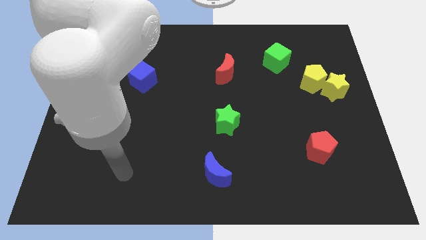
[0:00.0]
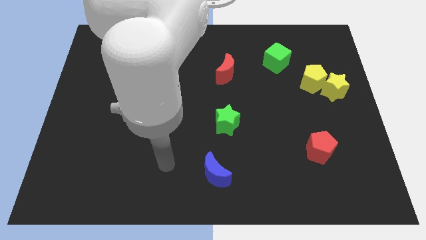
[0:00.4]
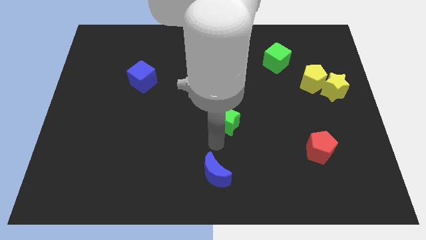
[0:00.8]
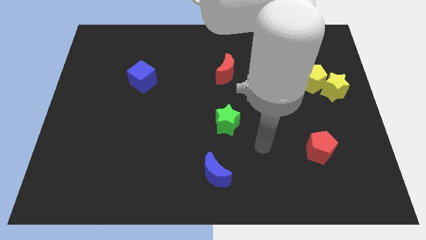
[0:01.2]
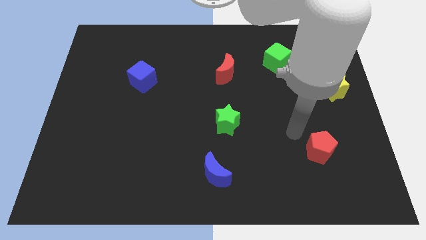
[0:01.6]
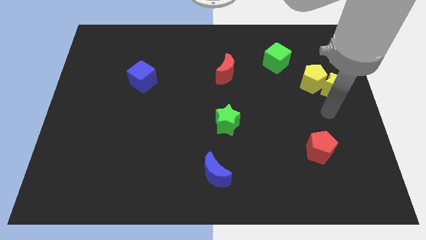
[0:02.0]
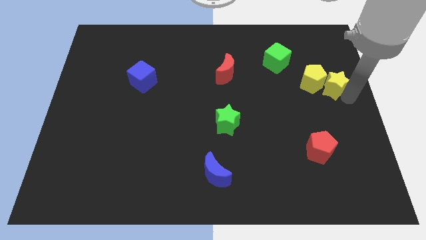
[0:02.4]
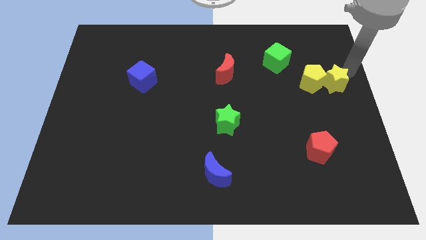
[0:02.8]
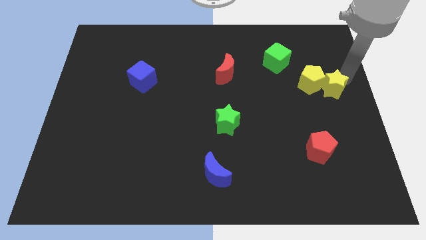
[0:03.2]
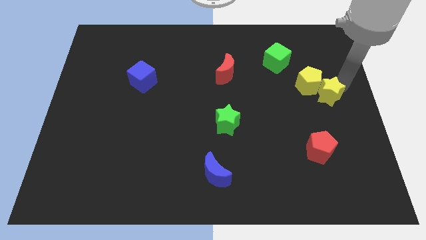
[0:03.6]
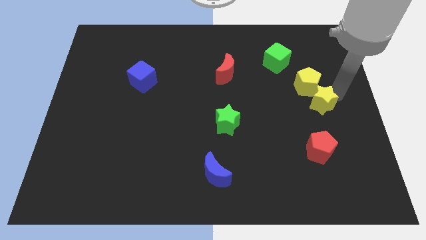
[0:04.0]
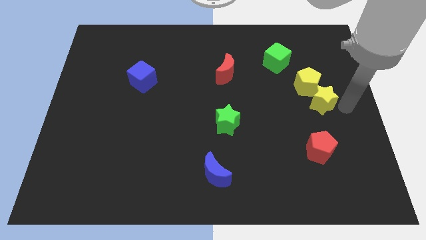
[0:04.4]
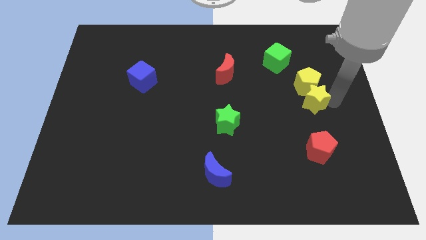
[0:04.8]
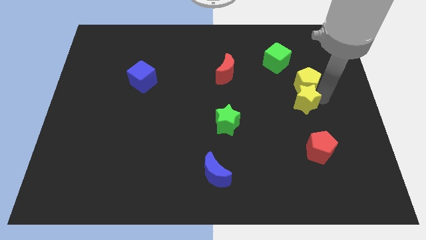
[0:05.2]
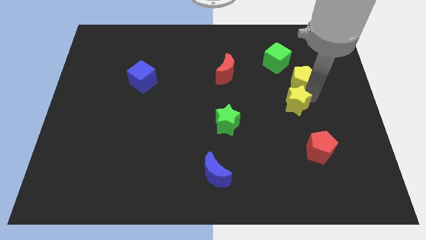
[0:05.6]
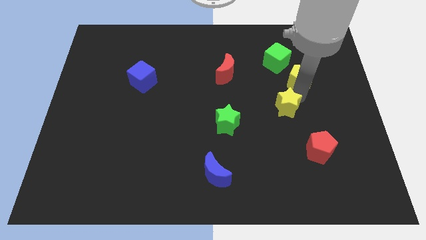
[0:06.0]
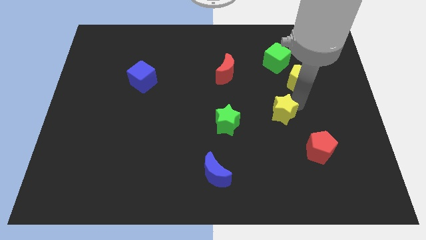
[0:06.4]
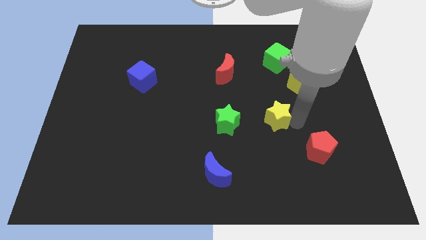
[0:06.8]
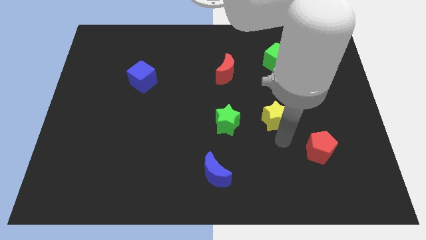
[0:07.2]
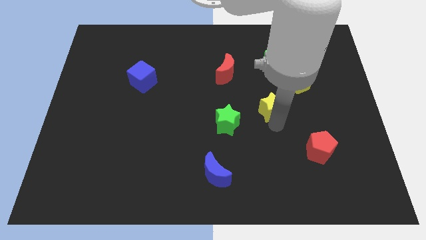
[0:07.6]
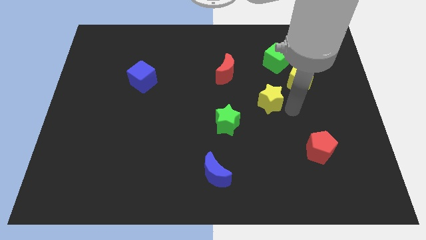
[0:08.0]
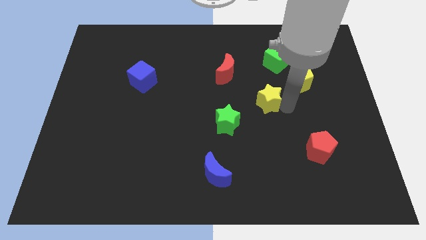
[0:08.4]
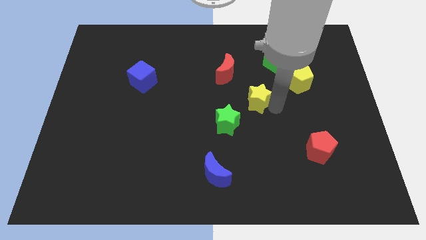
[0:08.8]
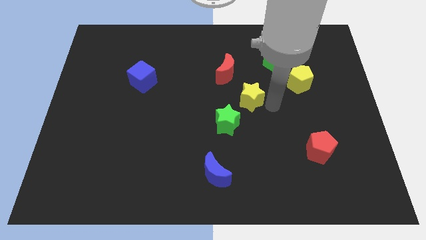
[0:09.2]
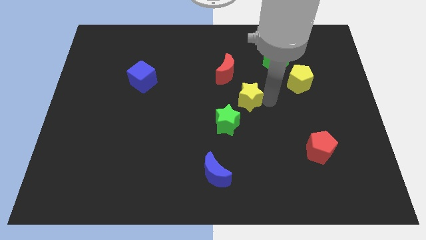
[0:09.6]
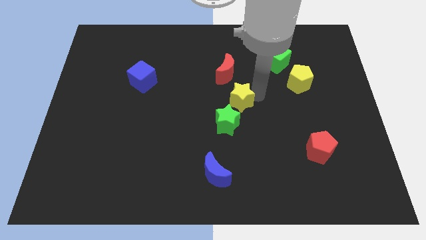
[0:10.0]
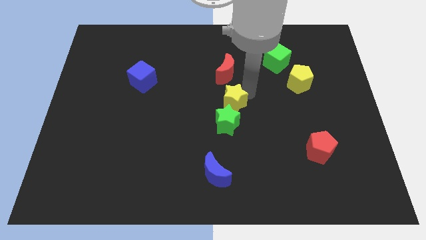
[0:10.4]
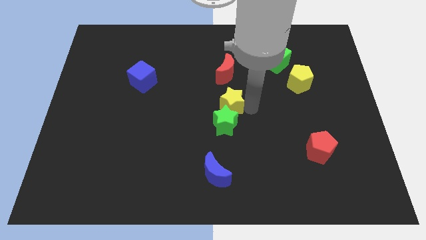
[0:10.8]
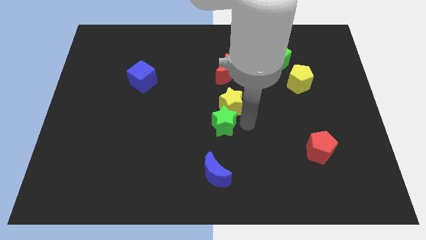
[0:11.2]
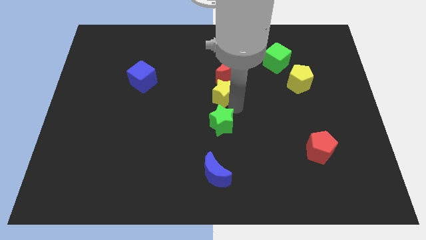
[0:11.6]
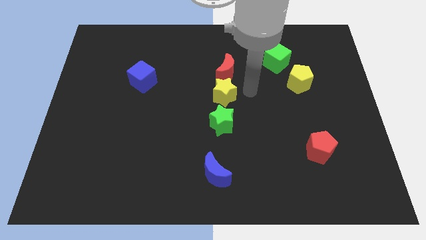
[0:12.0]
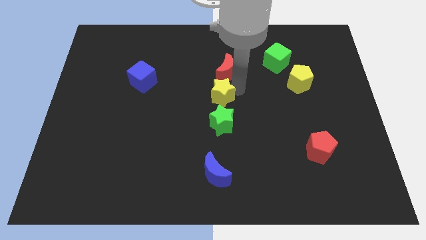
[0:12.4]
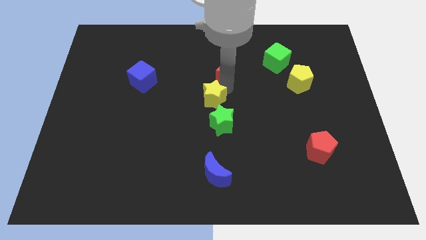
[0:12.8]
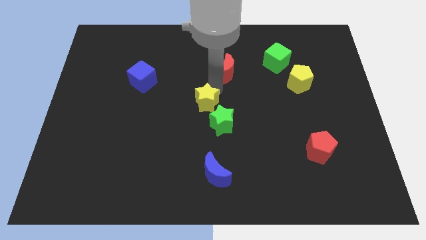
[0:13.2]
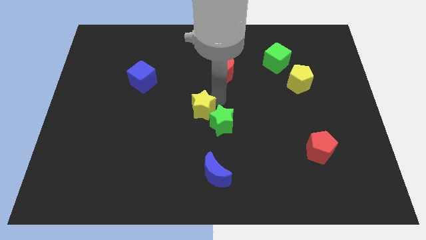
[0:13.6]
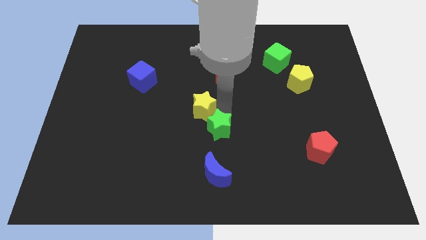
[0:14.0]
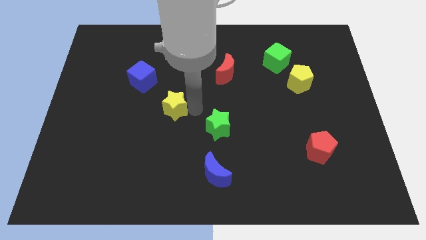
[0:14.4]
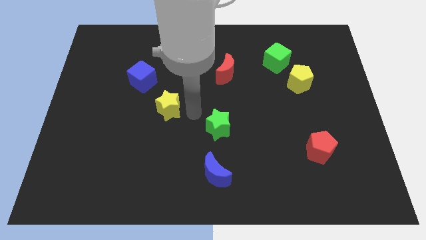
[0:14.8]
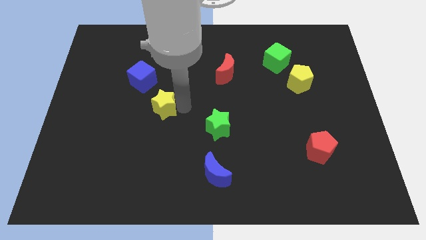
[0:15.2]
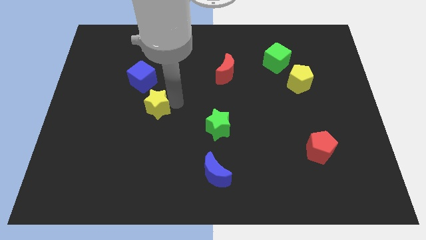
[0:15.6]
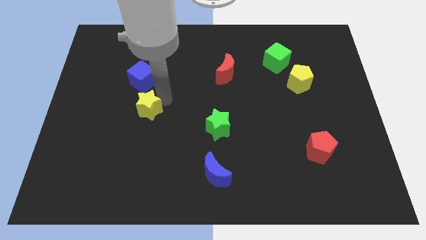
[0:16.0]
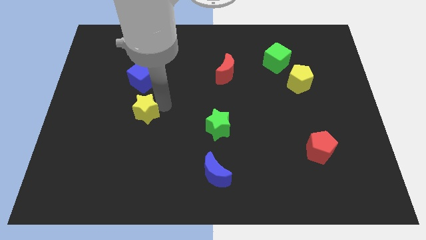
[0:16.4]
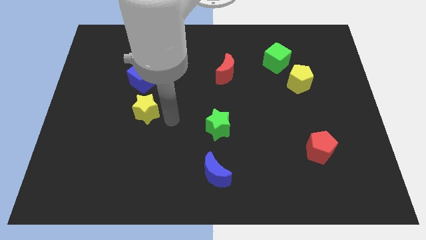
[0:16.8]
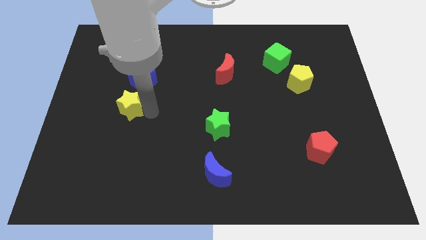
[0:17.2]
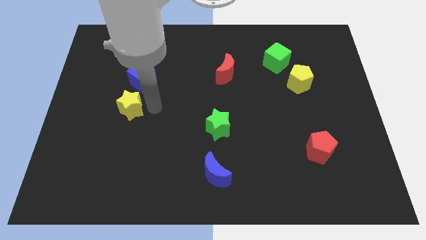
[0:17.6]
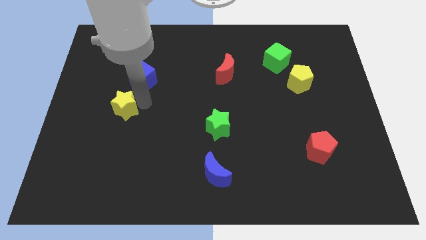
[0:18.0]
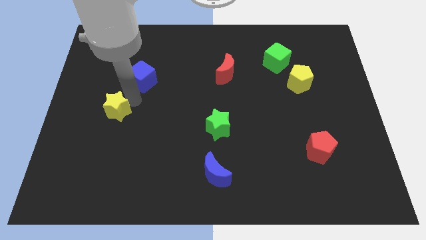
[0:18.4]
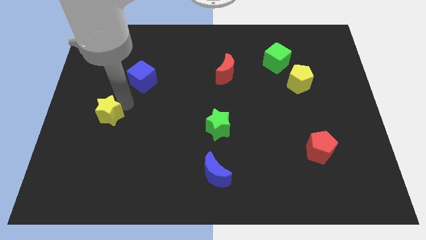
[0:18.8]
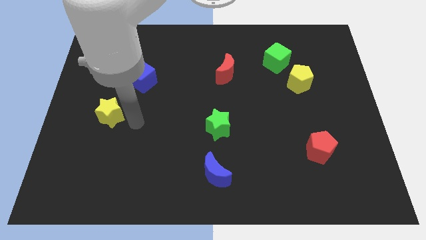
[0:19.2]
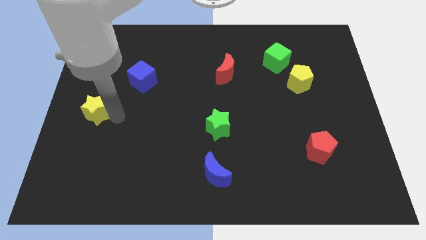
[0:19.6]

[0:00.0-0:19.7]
put the yellow star to the left side

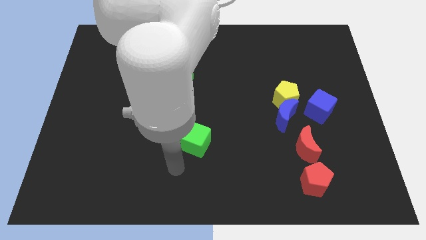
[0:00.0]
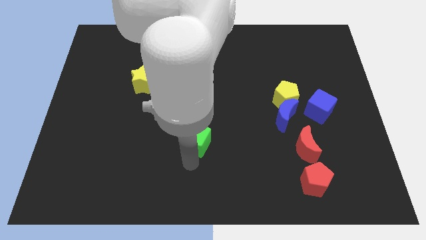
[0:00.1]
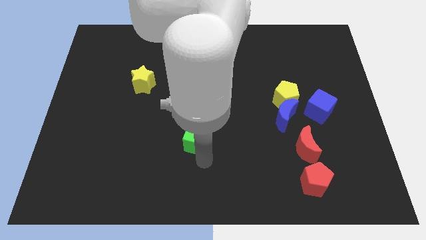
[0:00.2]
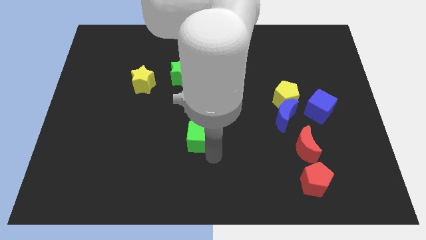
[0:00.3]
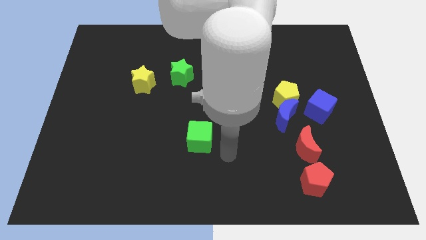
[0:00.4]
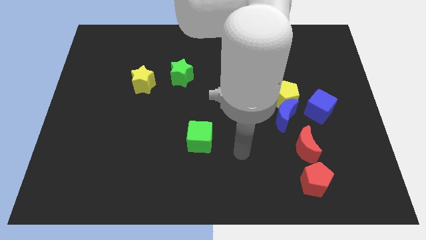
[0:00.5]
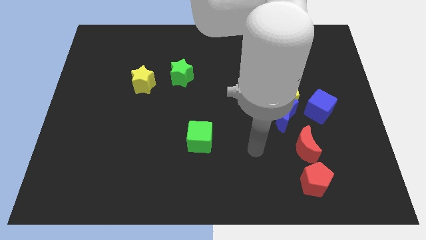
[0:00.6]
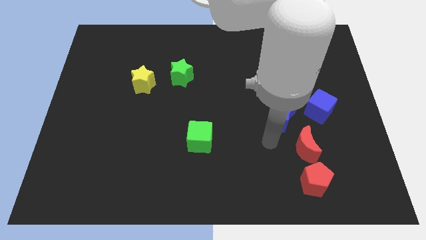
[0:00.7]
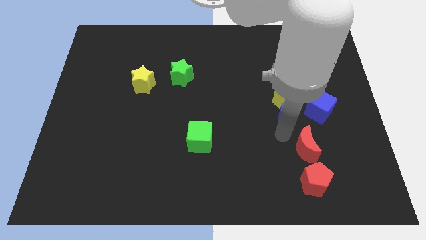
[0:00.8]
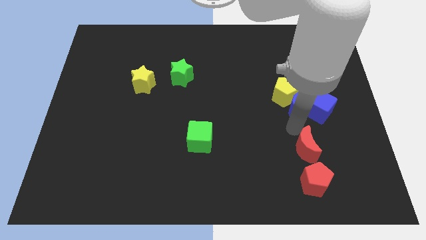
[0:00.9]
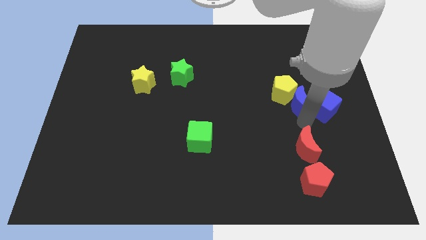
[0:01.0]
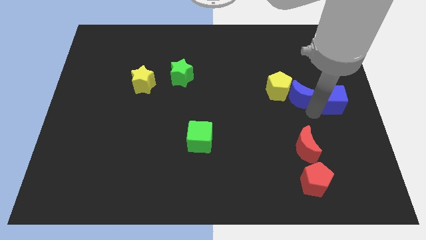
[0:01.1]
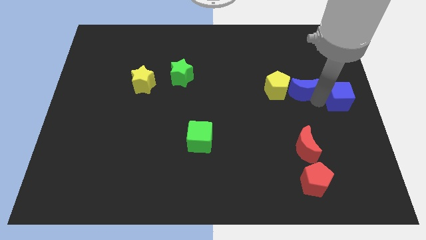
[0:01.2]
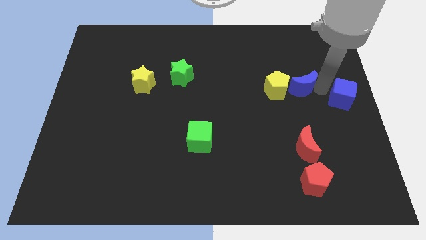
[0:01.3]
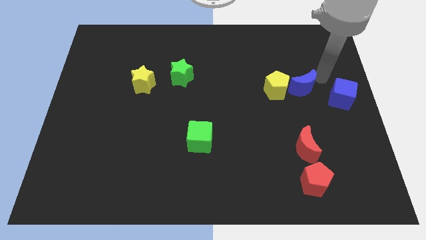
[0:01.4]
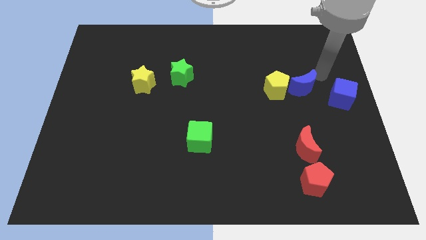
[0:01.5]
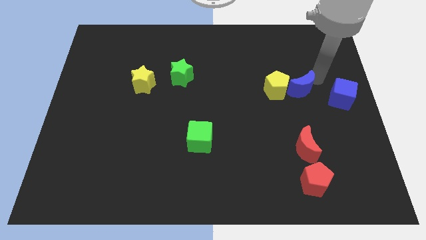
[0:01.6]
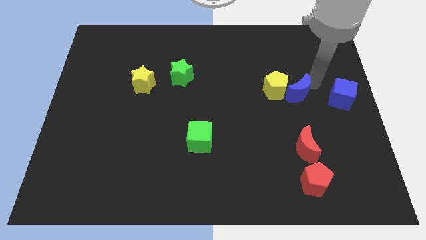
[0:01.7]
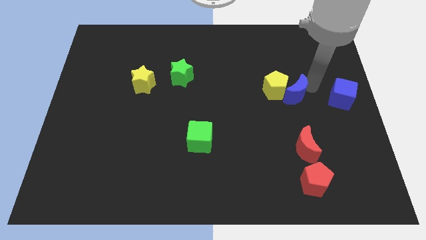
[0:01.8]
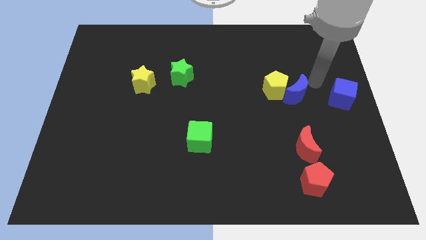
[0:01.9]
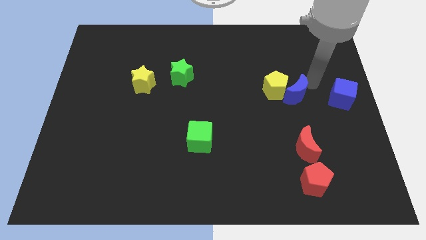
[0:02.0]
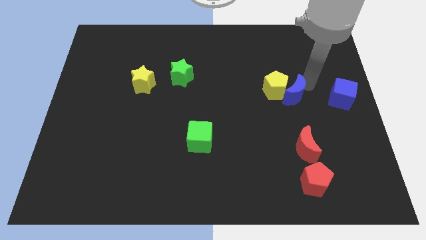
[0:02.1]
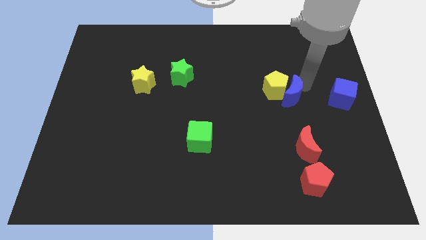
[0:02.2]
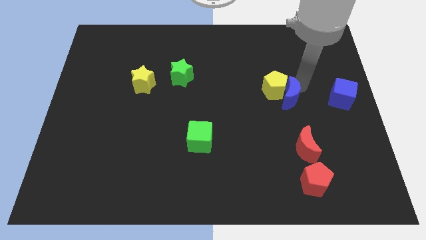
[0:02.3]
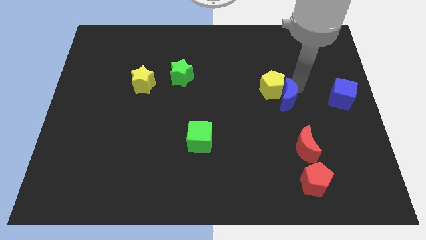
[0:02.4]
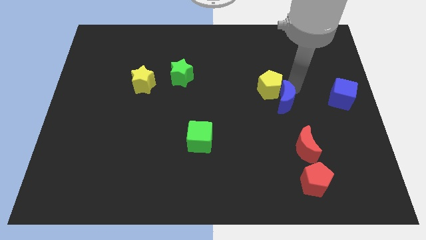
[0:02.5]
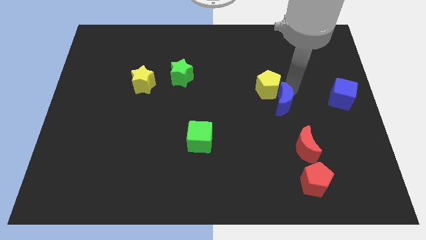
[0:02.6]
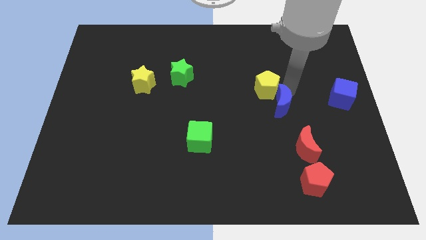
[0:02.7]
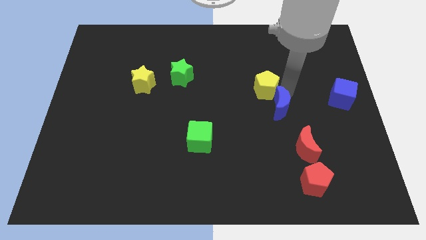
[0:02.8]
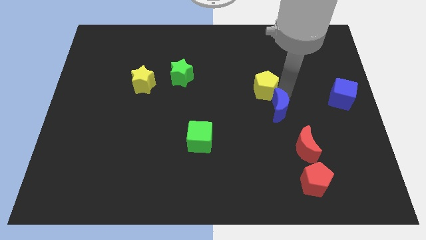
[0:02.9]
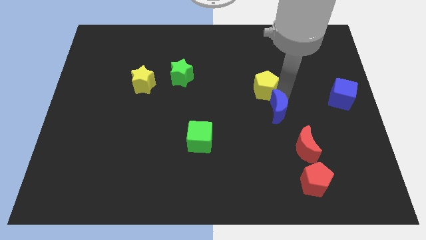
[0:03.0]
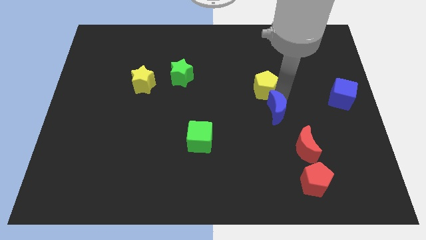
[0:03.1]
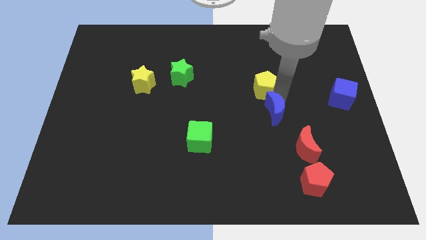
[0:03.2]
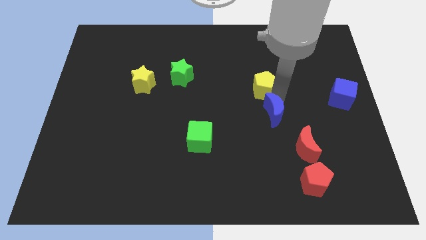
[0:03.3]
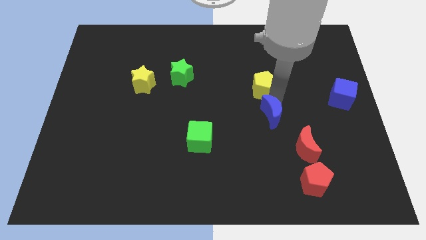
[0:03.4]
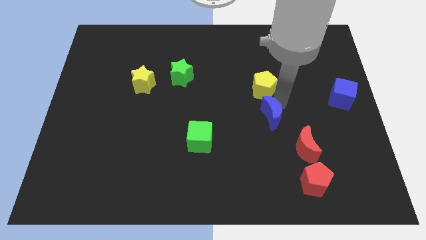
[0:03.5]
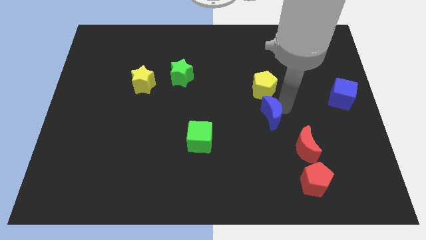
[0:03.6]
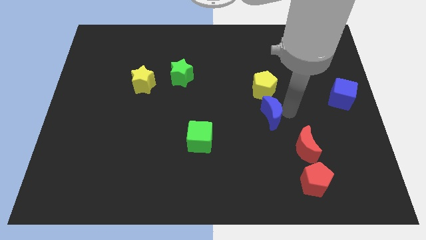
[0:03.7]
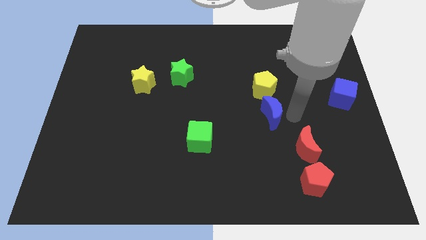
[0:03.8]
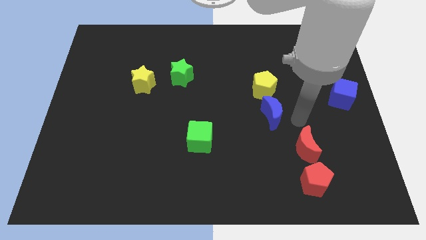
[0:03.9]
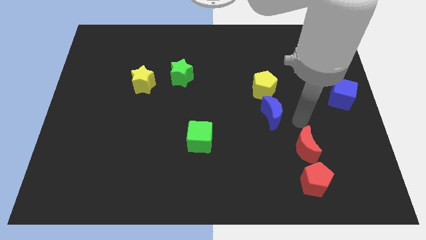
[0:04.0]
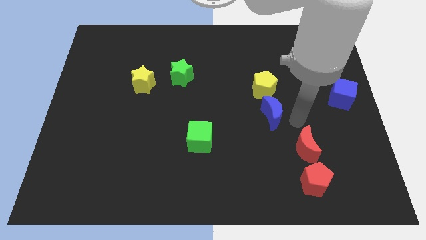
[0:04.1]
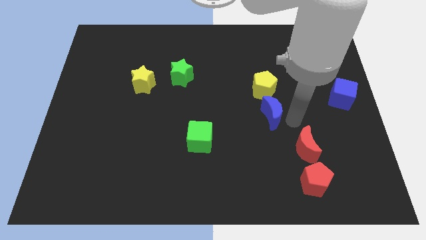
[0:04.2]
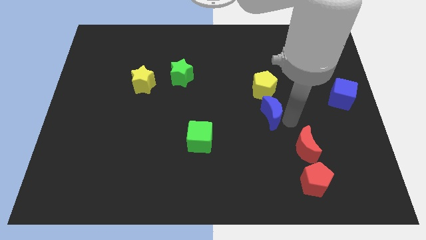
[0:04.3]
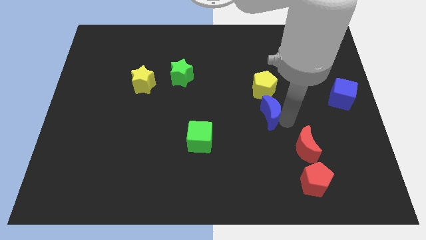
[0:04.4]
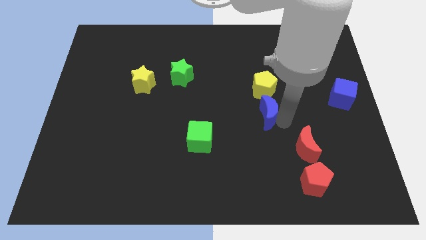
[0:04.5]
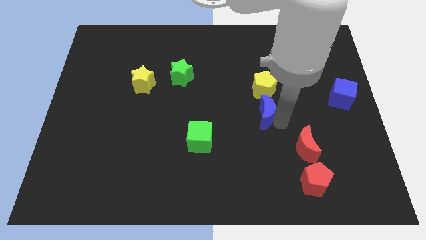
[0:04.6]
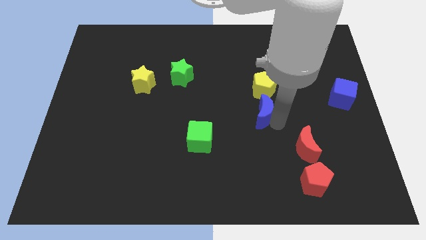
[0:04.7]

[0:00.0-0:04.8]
slide the blue moon to the center
